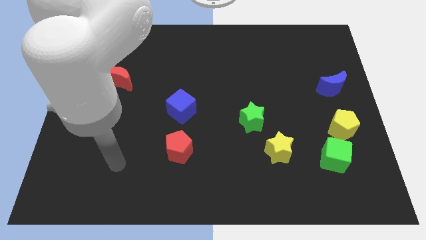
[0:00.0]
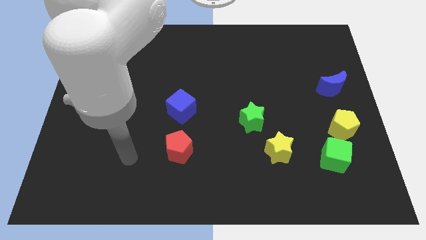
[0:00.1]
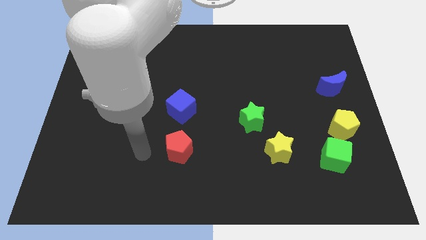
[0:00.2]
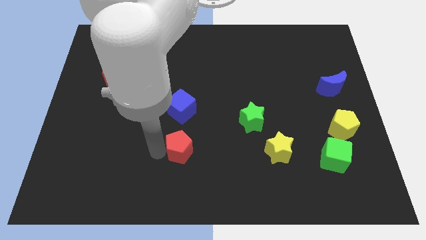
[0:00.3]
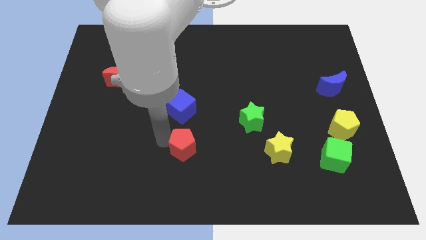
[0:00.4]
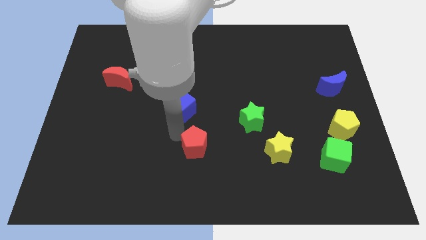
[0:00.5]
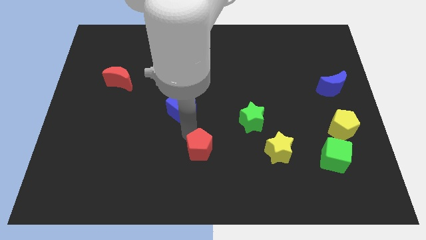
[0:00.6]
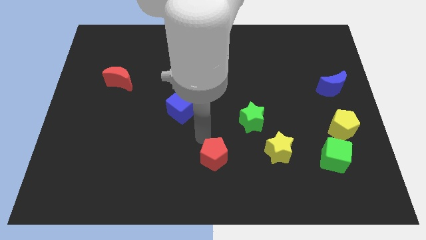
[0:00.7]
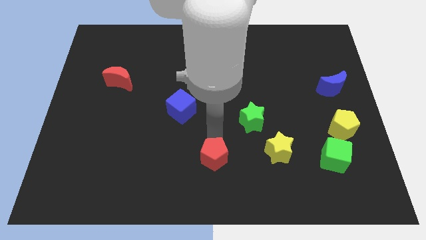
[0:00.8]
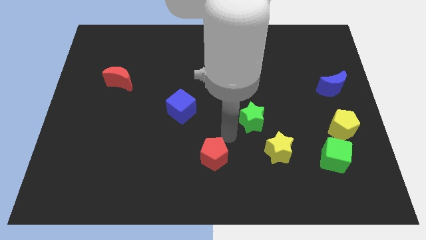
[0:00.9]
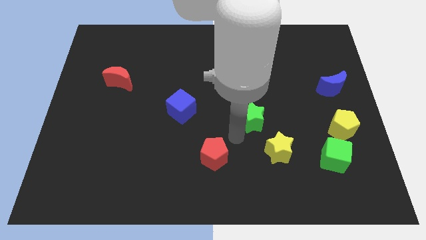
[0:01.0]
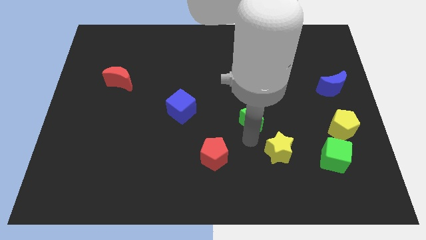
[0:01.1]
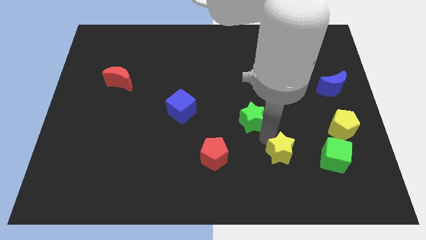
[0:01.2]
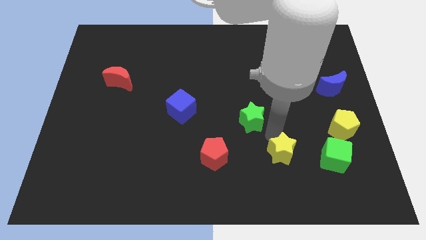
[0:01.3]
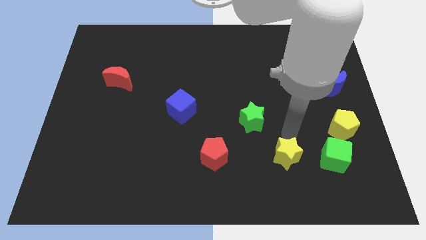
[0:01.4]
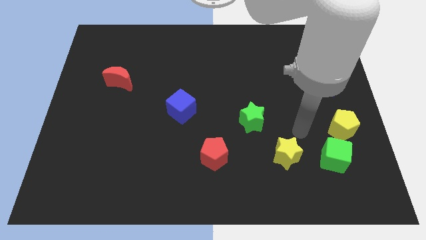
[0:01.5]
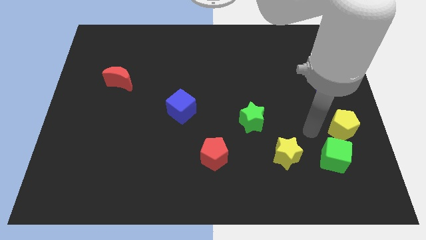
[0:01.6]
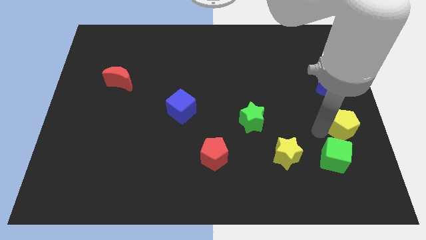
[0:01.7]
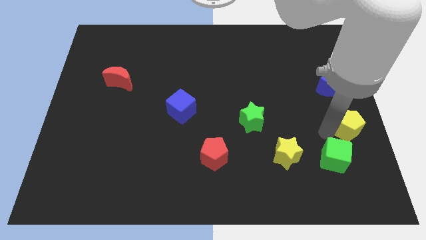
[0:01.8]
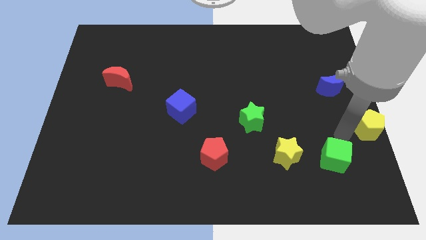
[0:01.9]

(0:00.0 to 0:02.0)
separate the green cube from the yellow pentagon

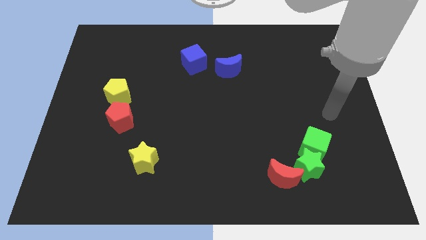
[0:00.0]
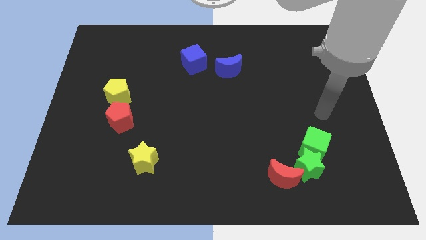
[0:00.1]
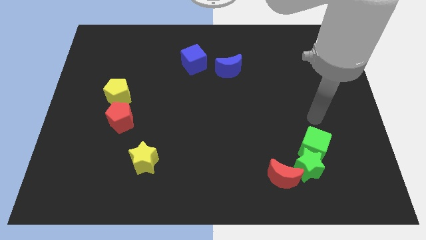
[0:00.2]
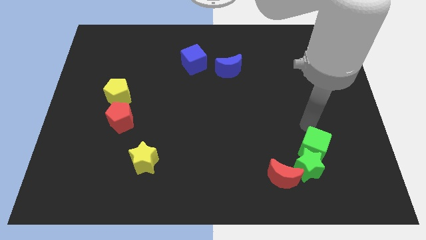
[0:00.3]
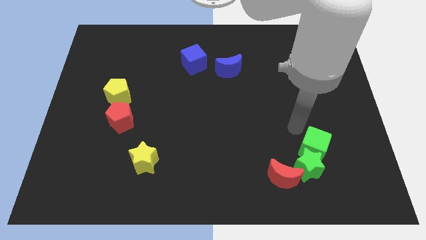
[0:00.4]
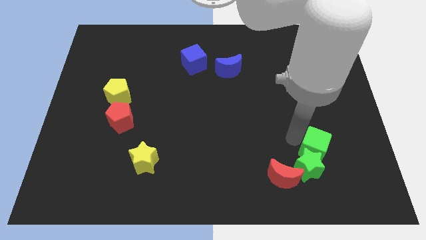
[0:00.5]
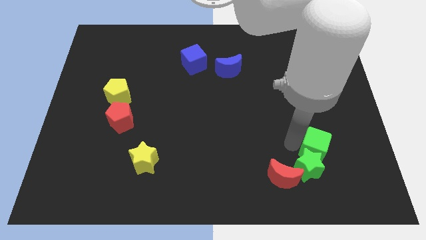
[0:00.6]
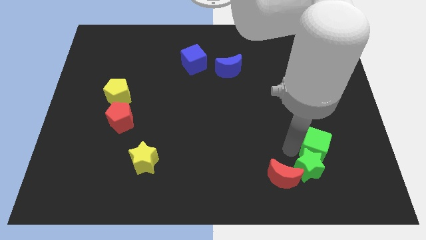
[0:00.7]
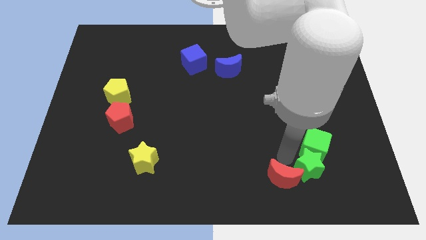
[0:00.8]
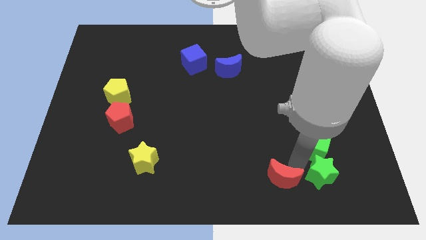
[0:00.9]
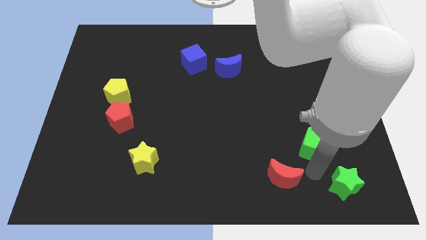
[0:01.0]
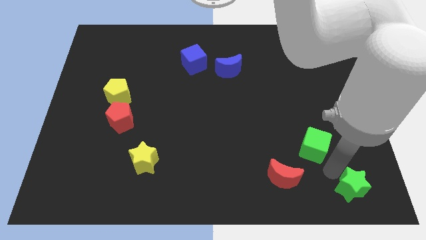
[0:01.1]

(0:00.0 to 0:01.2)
separate the green cube from the green star

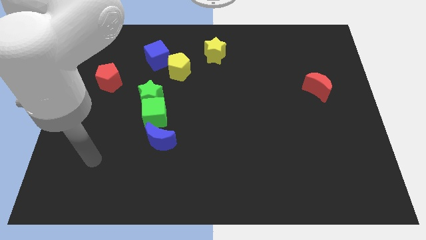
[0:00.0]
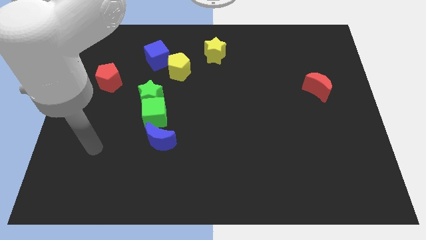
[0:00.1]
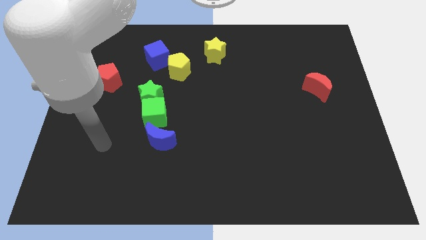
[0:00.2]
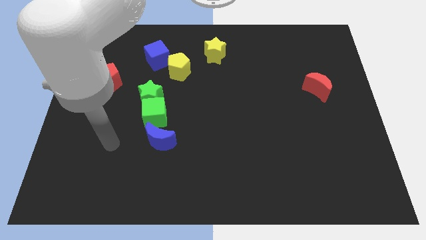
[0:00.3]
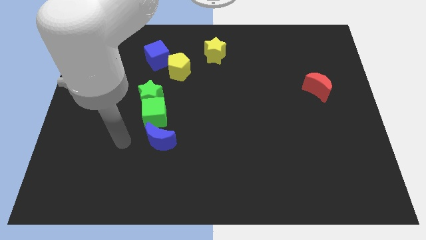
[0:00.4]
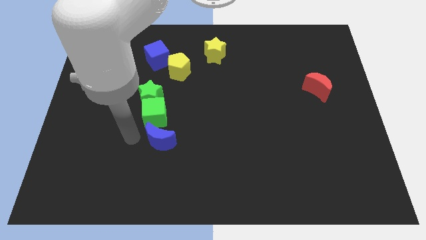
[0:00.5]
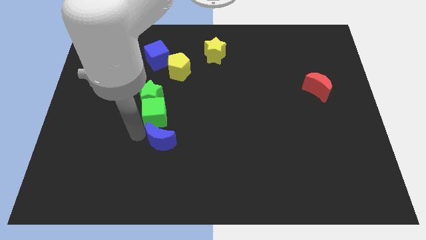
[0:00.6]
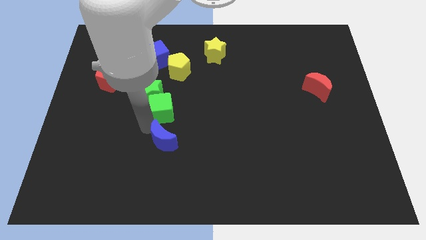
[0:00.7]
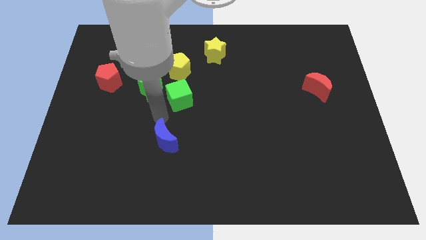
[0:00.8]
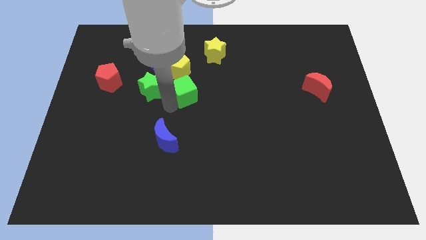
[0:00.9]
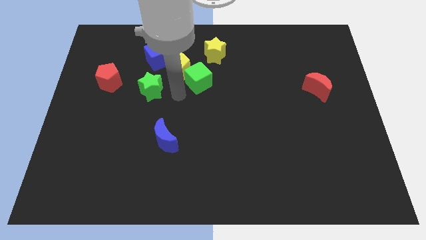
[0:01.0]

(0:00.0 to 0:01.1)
pull the green star apart from the green cube

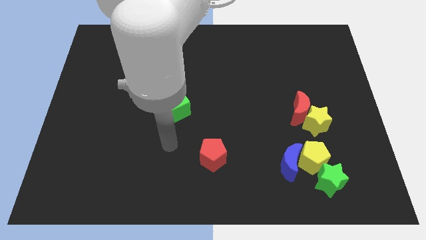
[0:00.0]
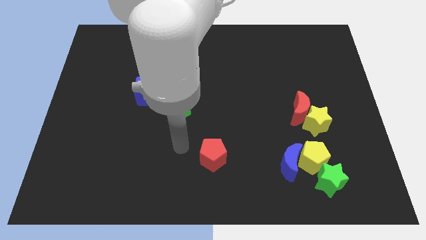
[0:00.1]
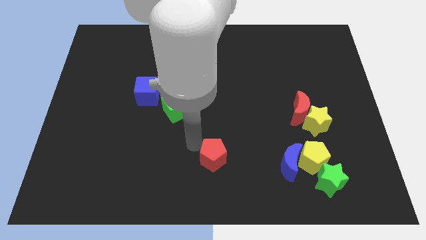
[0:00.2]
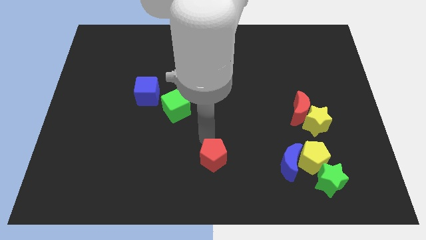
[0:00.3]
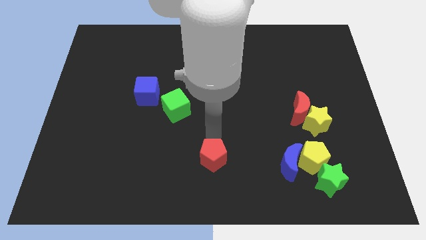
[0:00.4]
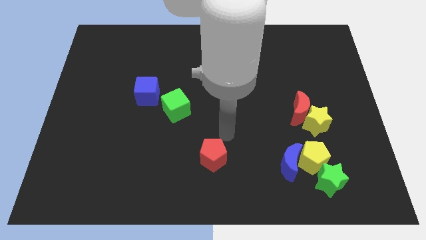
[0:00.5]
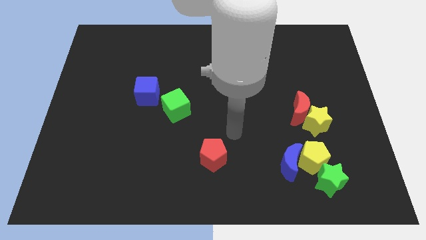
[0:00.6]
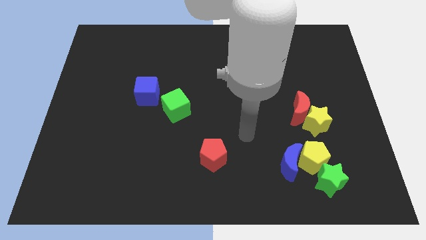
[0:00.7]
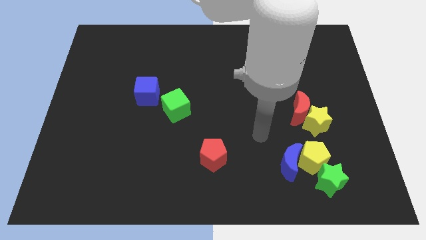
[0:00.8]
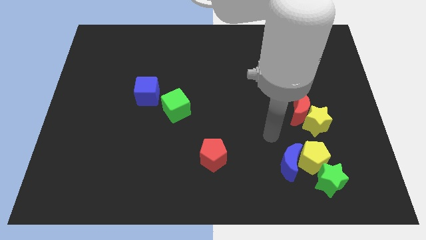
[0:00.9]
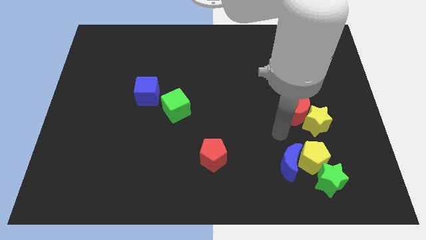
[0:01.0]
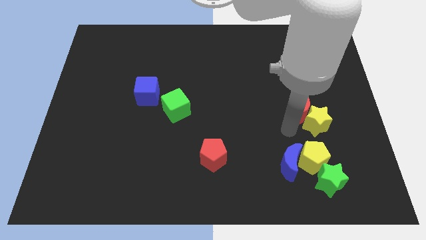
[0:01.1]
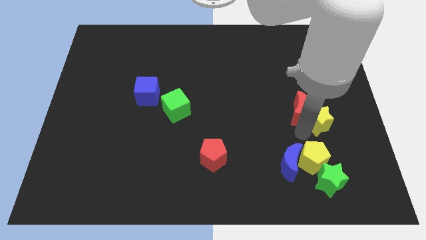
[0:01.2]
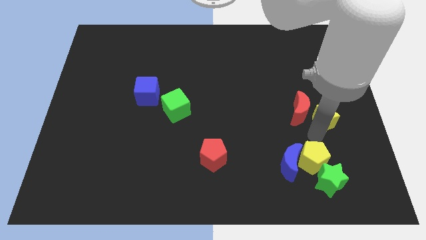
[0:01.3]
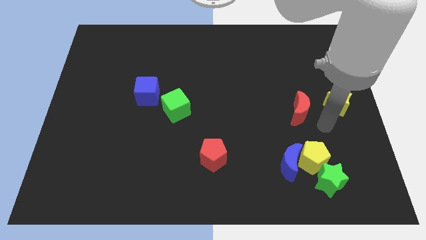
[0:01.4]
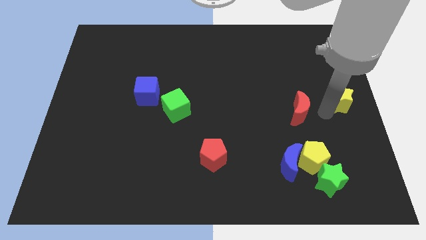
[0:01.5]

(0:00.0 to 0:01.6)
separate the red moon from the yellow star

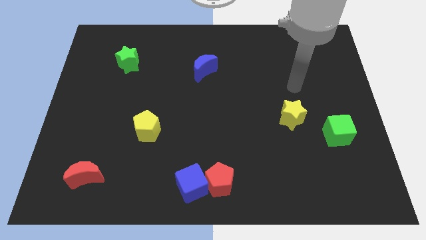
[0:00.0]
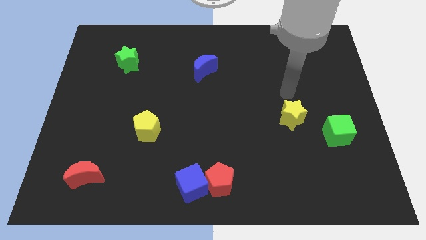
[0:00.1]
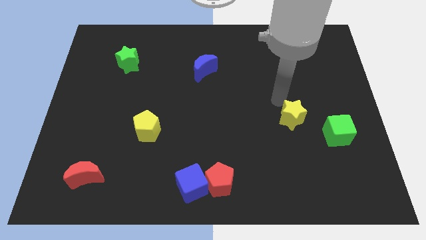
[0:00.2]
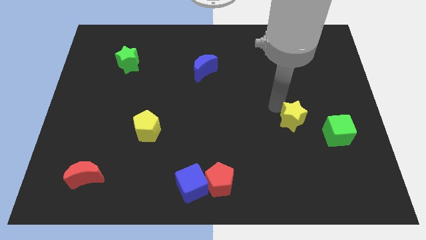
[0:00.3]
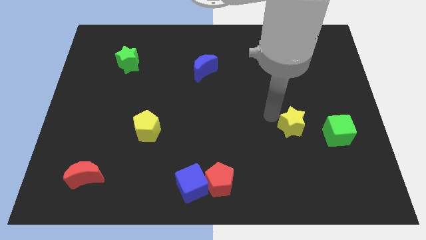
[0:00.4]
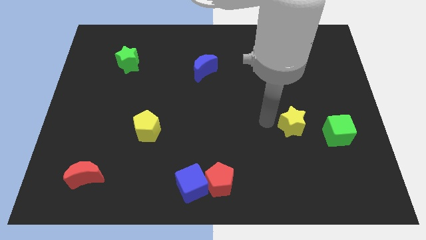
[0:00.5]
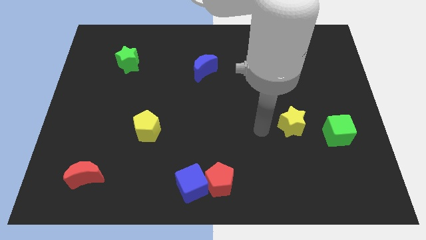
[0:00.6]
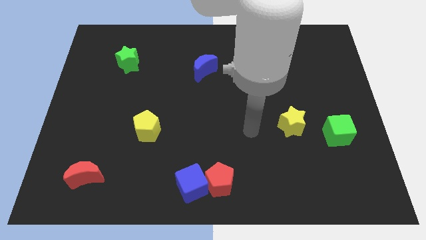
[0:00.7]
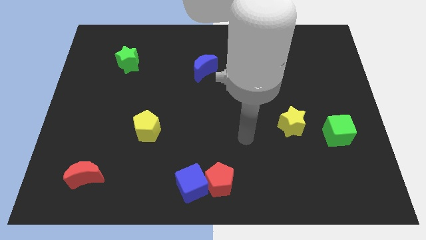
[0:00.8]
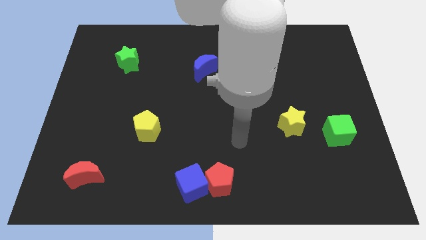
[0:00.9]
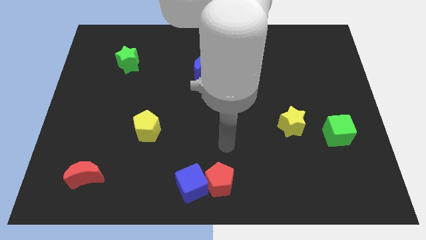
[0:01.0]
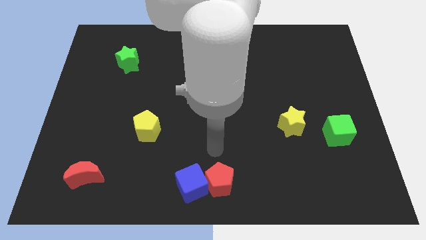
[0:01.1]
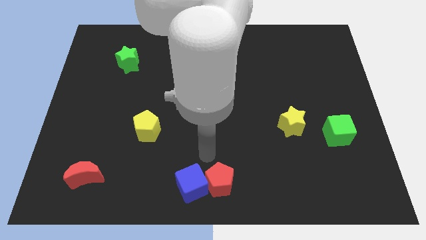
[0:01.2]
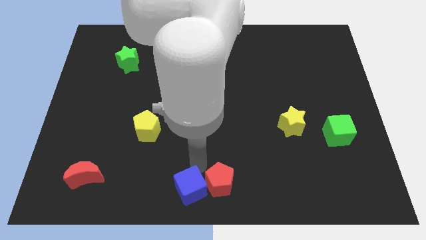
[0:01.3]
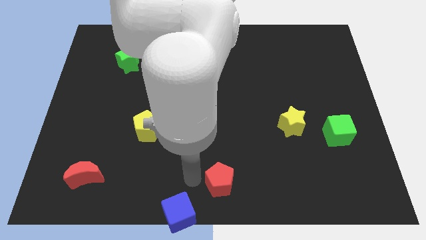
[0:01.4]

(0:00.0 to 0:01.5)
separate the red pentagon from the blue cube

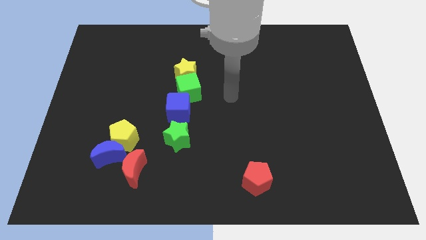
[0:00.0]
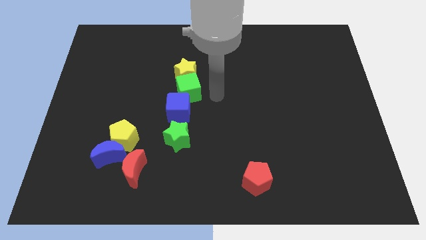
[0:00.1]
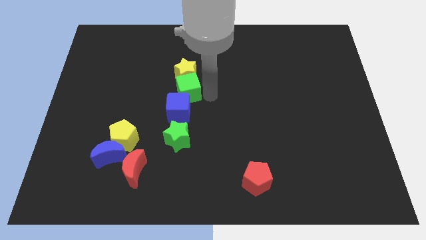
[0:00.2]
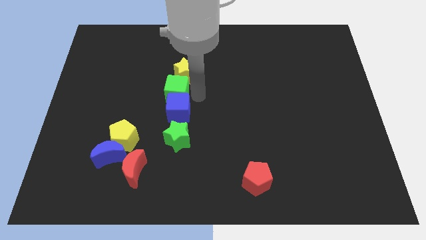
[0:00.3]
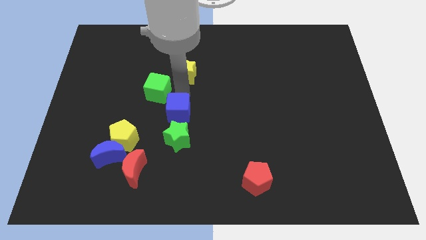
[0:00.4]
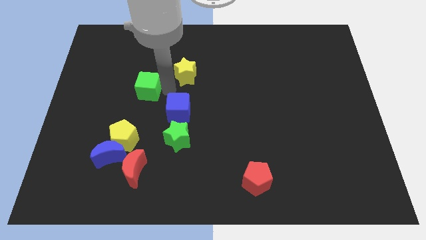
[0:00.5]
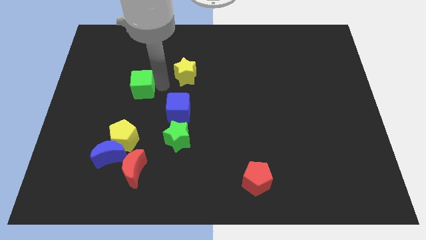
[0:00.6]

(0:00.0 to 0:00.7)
move the yellow star away from the green cube

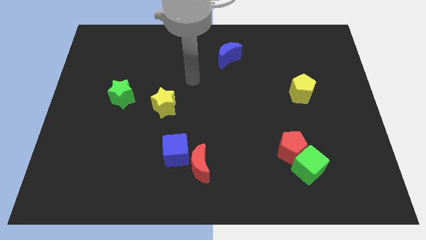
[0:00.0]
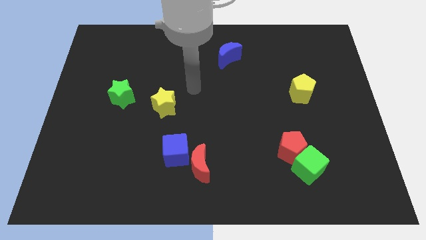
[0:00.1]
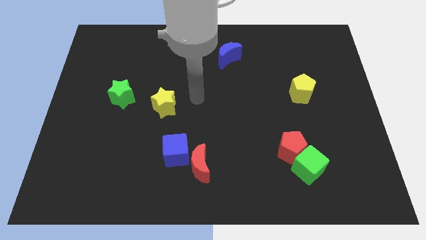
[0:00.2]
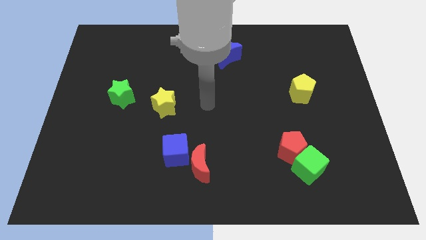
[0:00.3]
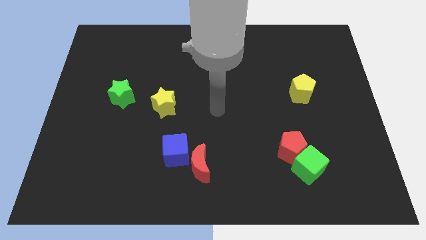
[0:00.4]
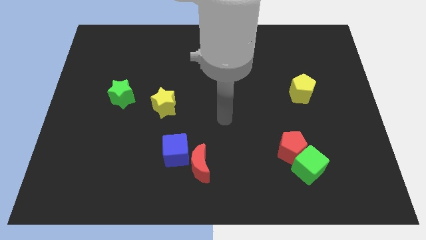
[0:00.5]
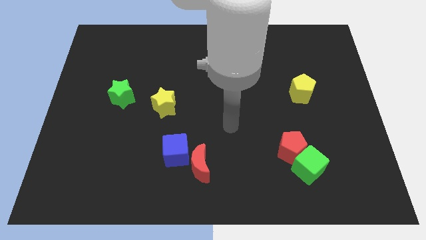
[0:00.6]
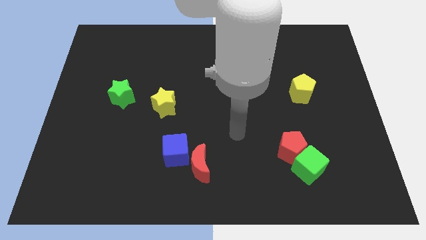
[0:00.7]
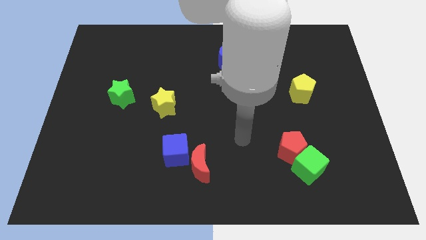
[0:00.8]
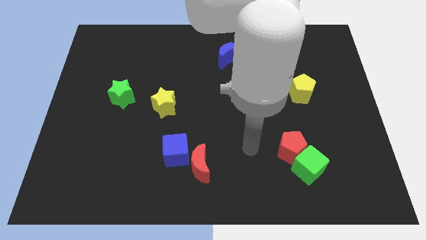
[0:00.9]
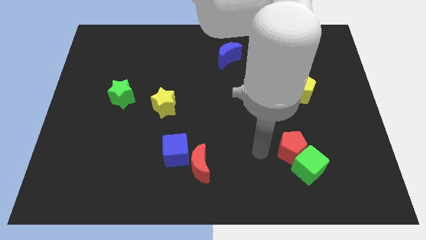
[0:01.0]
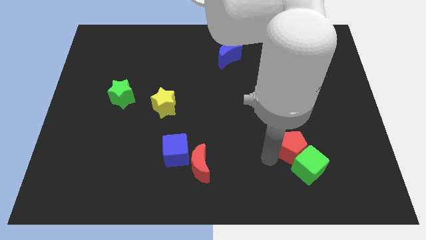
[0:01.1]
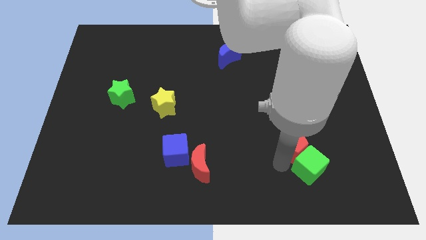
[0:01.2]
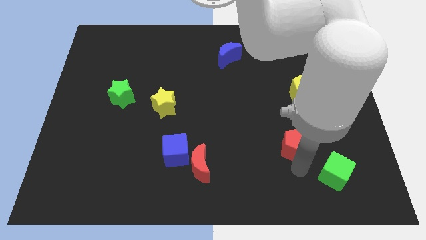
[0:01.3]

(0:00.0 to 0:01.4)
pull the red pentagon apart from the green cube

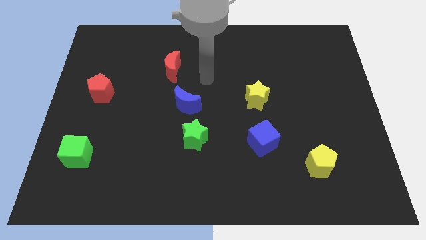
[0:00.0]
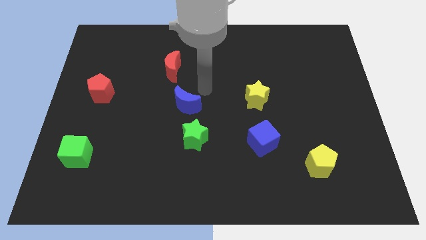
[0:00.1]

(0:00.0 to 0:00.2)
separate the blue moon from the green star
